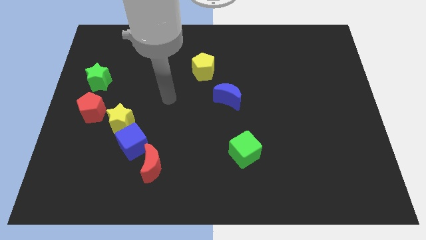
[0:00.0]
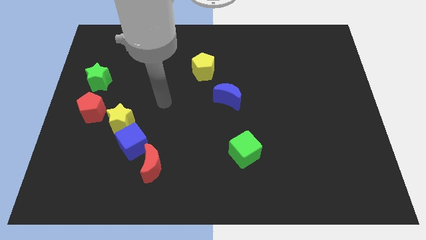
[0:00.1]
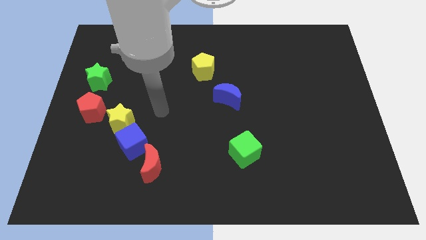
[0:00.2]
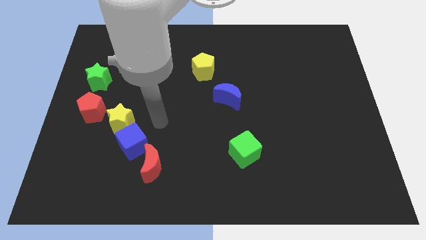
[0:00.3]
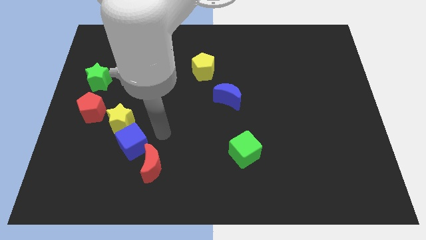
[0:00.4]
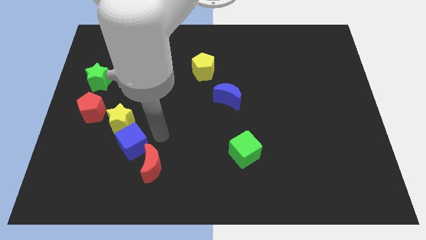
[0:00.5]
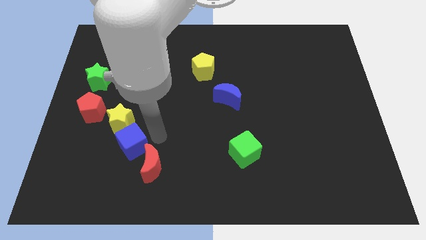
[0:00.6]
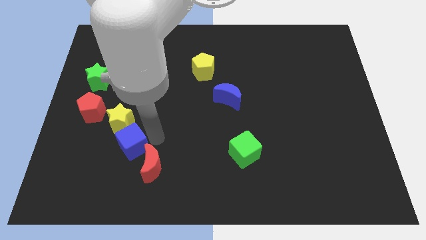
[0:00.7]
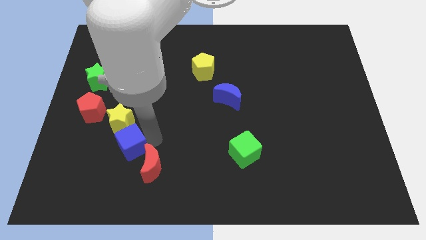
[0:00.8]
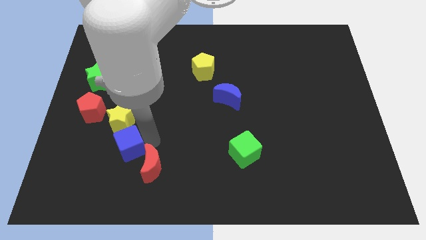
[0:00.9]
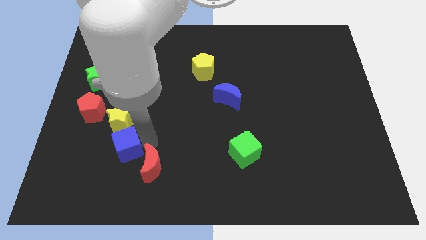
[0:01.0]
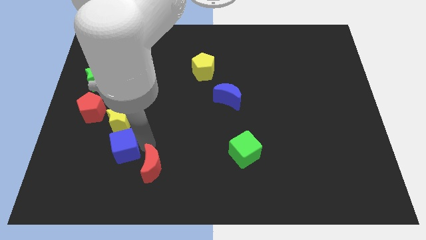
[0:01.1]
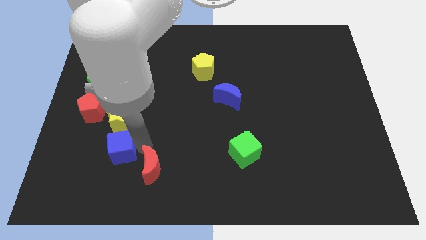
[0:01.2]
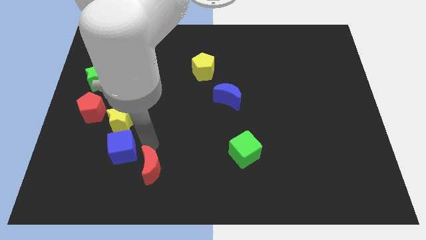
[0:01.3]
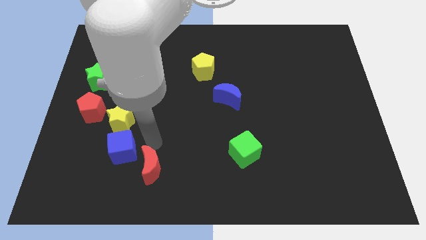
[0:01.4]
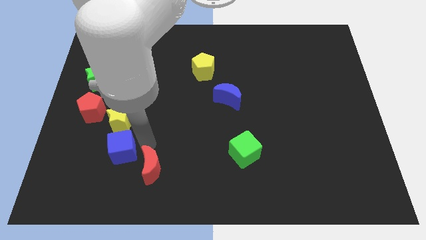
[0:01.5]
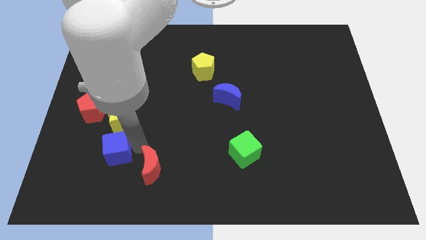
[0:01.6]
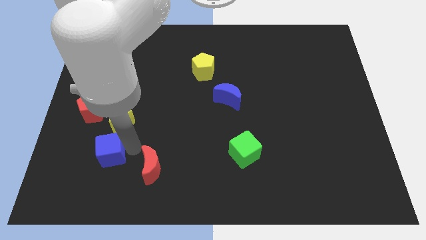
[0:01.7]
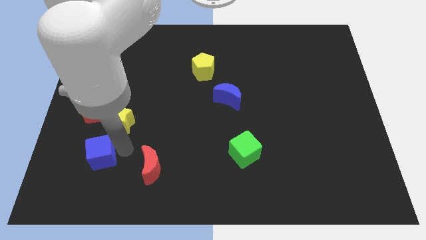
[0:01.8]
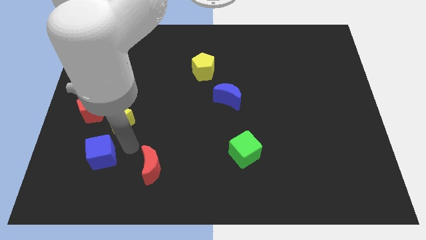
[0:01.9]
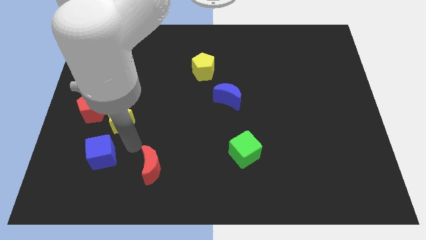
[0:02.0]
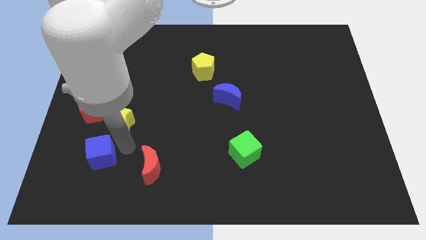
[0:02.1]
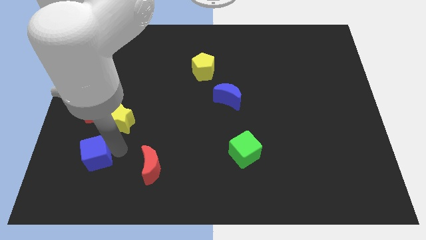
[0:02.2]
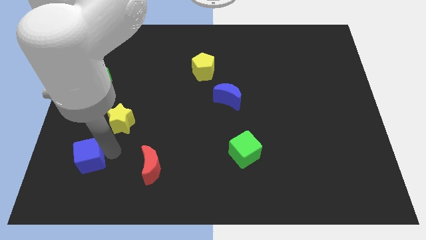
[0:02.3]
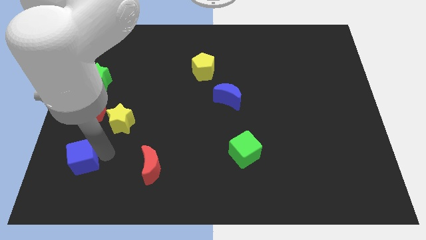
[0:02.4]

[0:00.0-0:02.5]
pull the blue cube apart from the yellow star and red moon

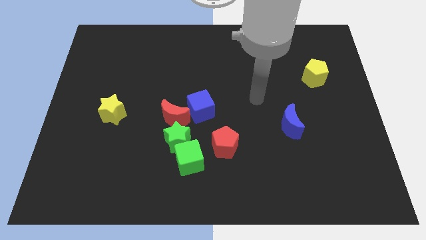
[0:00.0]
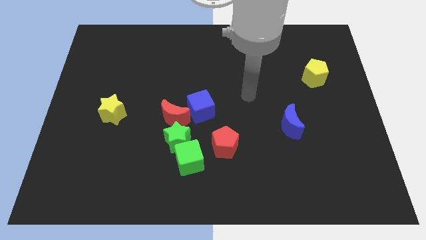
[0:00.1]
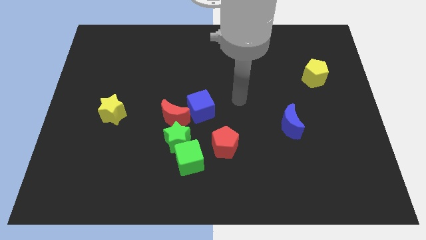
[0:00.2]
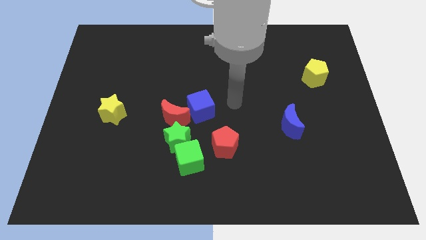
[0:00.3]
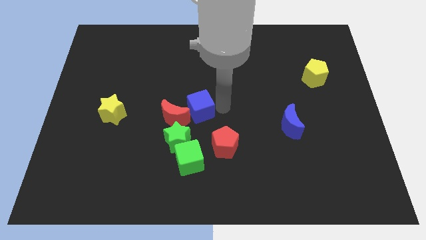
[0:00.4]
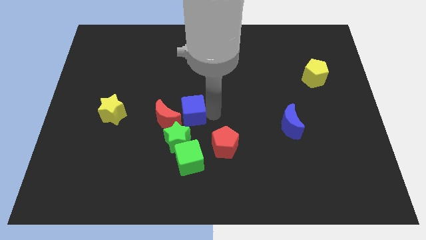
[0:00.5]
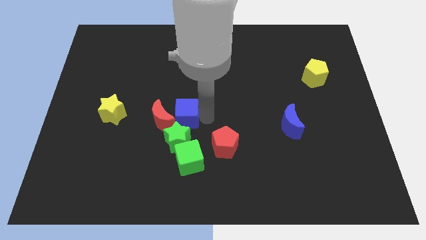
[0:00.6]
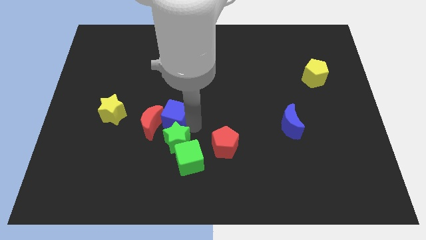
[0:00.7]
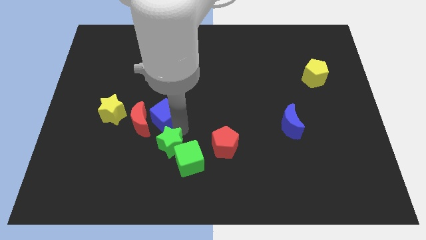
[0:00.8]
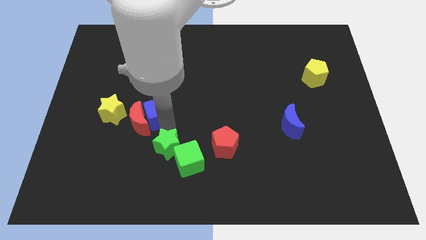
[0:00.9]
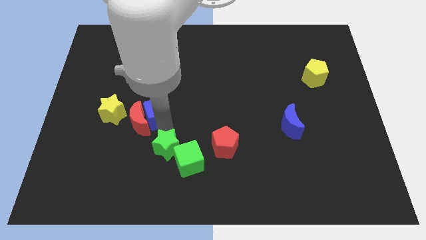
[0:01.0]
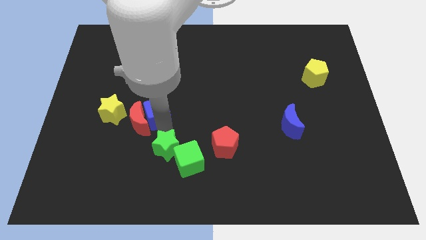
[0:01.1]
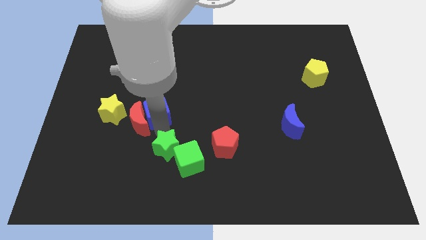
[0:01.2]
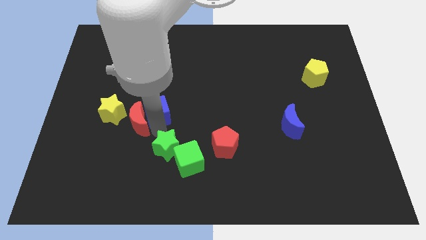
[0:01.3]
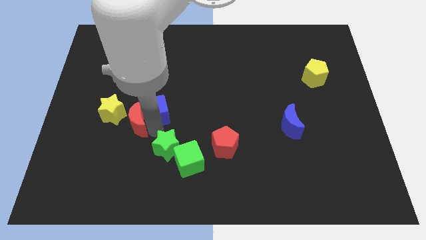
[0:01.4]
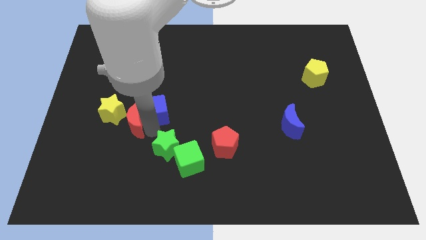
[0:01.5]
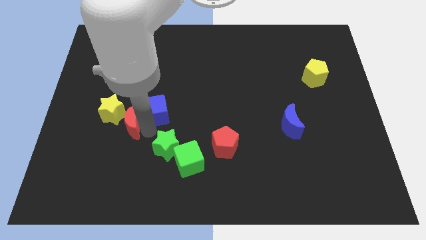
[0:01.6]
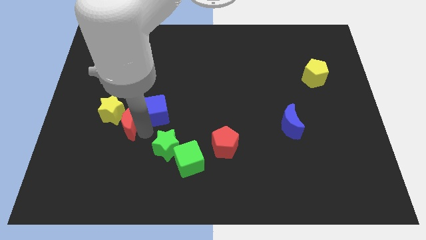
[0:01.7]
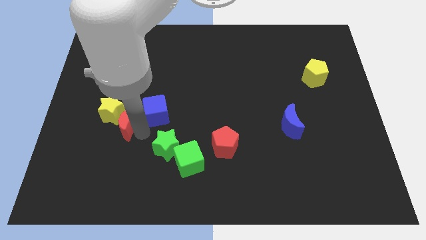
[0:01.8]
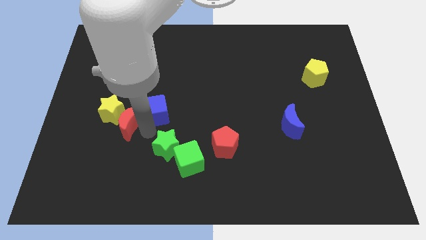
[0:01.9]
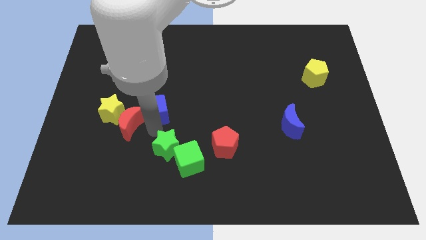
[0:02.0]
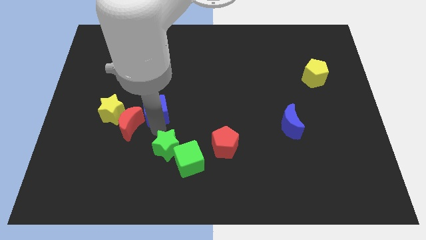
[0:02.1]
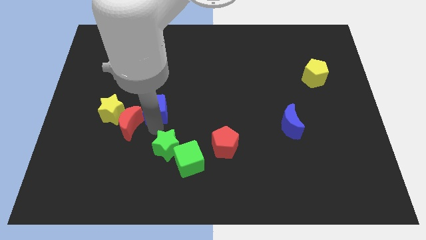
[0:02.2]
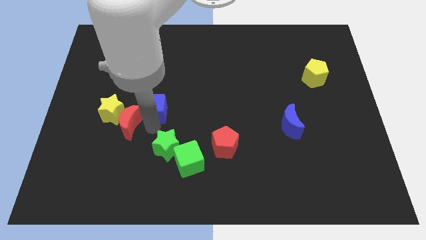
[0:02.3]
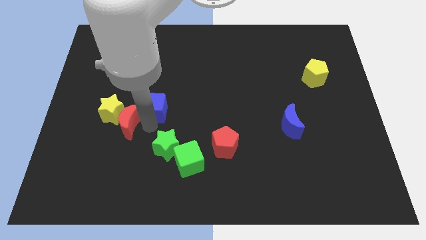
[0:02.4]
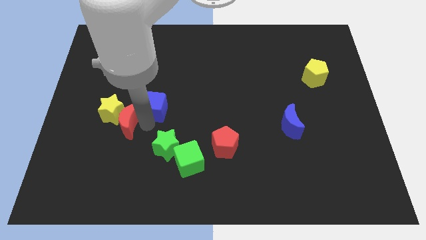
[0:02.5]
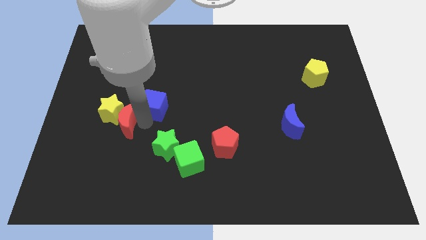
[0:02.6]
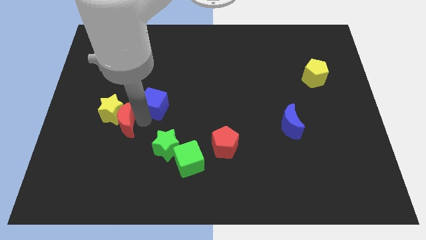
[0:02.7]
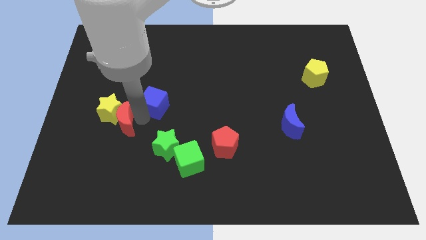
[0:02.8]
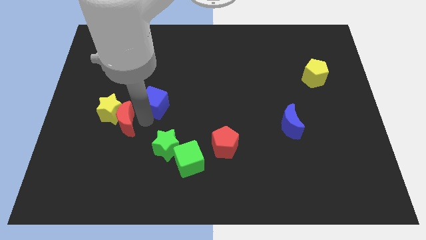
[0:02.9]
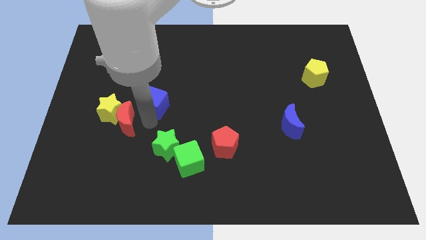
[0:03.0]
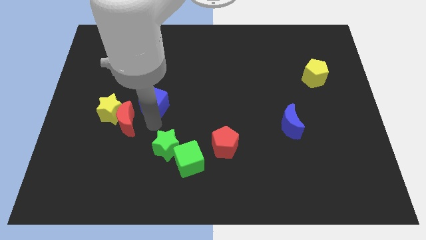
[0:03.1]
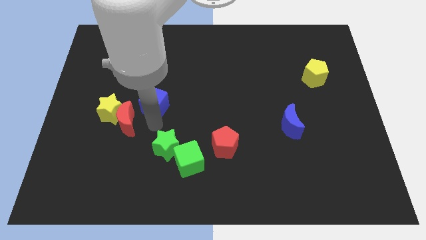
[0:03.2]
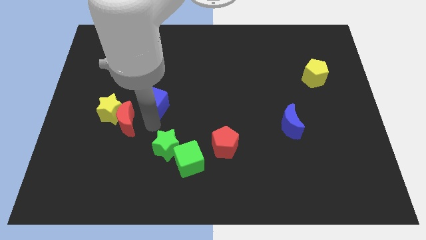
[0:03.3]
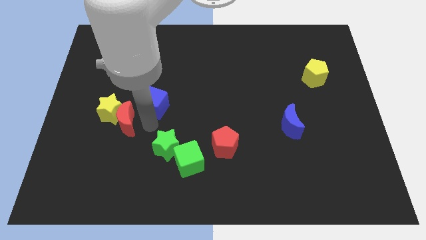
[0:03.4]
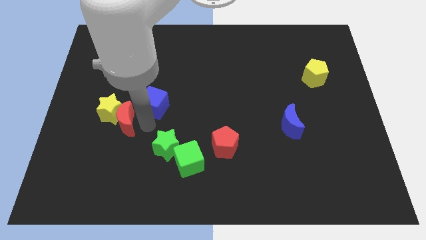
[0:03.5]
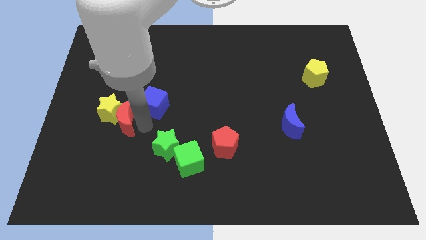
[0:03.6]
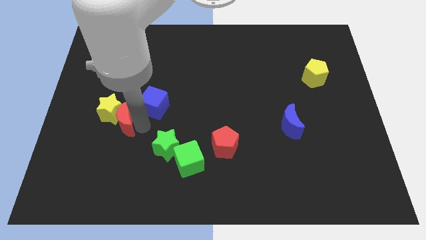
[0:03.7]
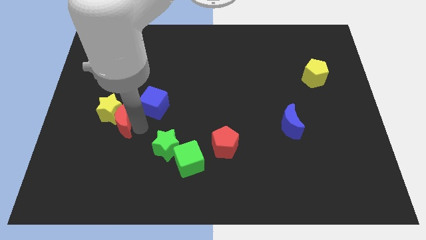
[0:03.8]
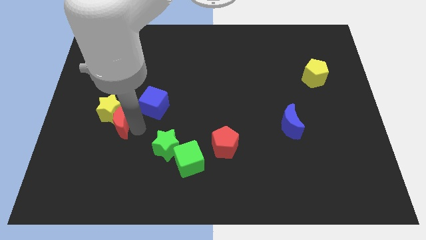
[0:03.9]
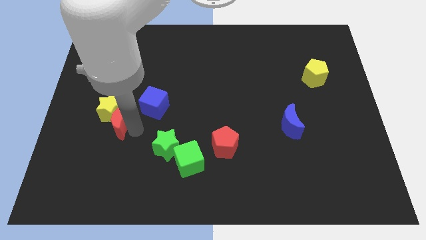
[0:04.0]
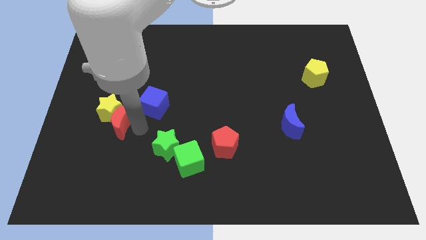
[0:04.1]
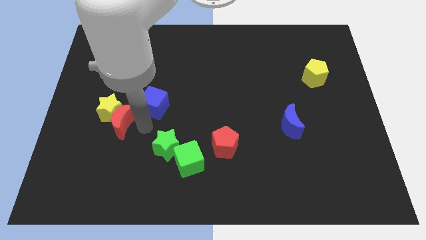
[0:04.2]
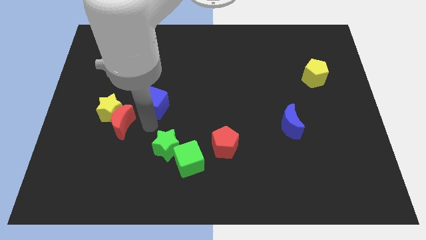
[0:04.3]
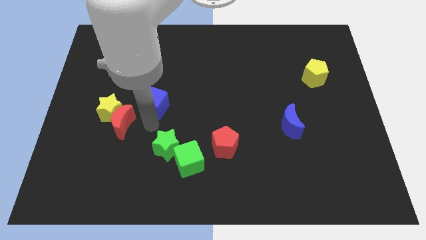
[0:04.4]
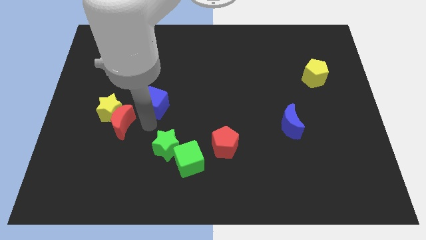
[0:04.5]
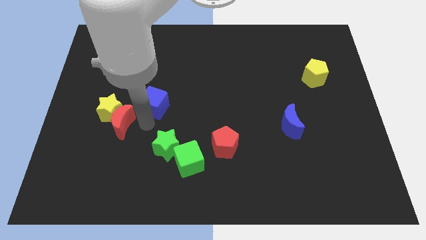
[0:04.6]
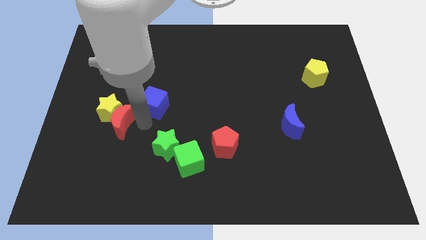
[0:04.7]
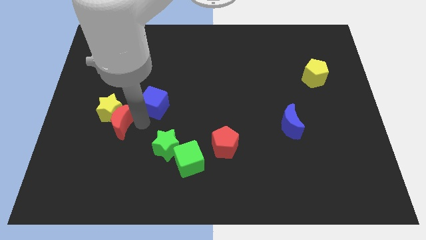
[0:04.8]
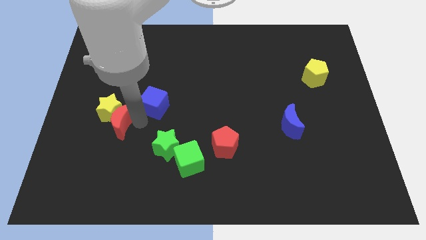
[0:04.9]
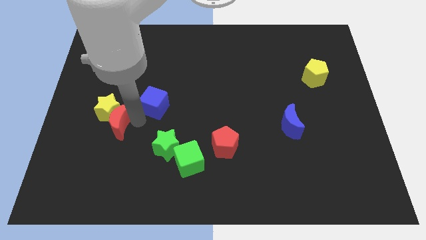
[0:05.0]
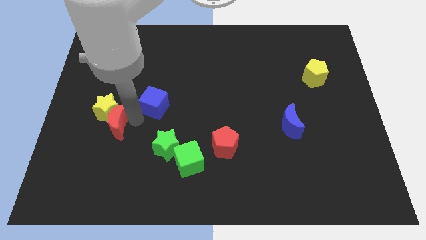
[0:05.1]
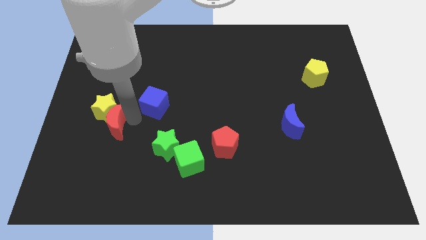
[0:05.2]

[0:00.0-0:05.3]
pull the red moon apart from the green star and blue cube

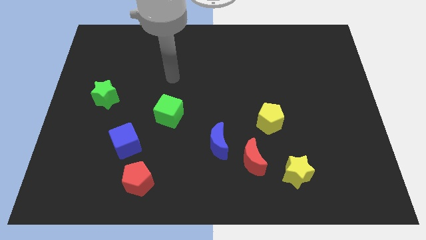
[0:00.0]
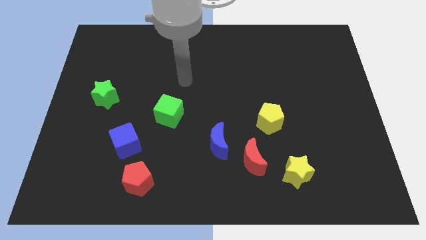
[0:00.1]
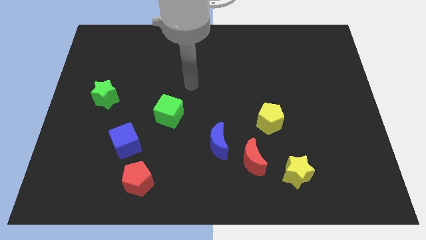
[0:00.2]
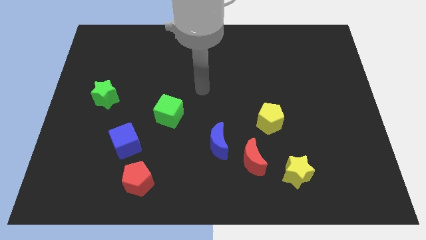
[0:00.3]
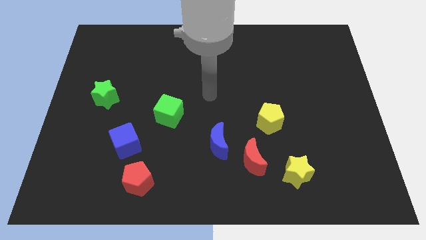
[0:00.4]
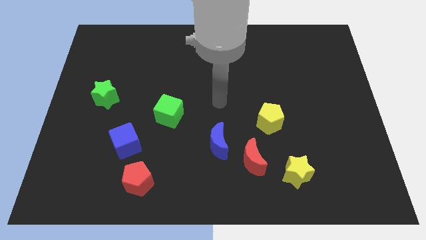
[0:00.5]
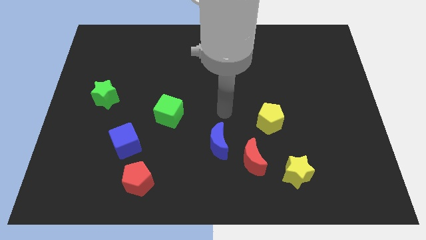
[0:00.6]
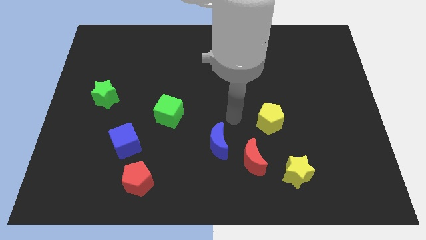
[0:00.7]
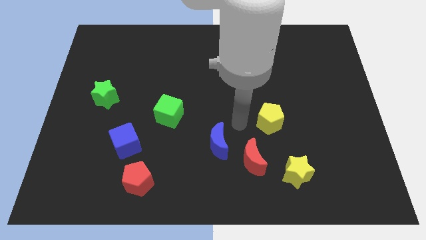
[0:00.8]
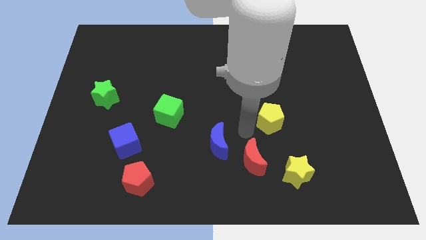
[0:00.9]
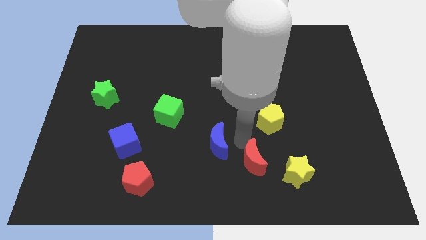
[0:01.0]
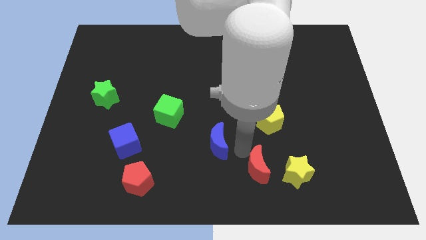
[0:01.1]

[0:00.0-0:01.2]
pull the blue moon apart from the red moon

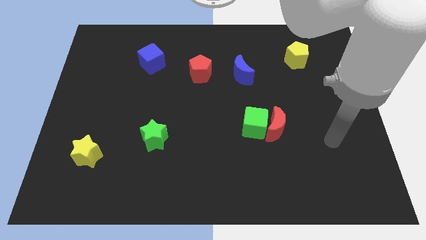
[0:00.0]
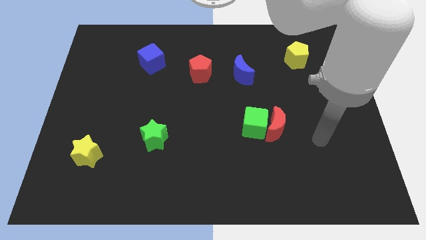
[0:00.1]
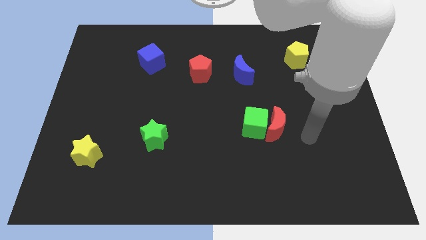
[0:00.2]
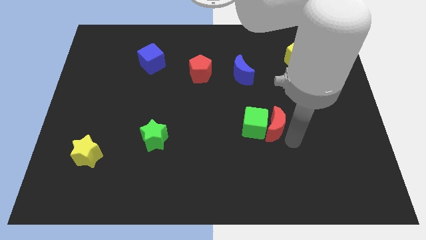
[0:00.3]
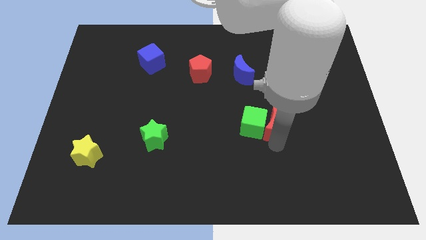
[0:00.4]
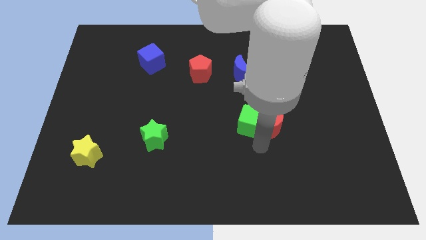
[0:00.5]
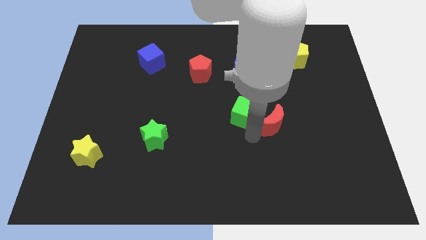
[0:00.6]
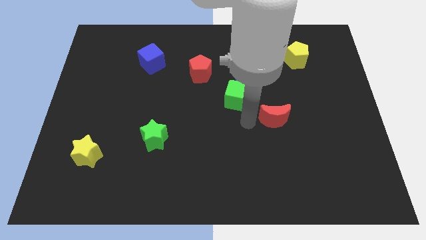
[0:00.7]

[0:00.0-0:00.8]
move the red moon away from the green cube
